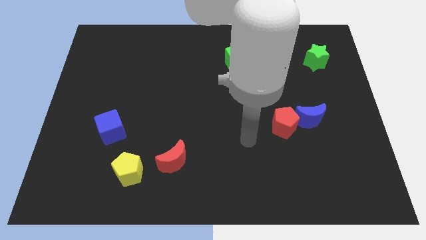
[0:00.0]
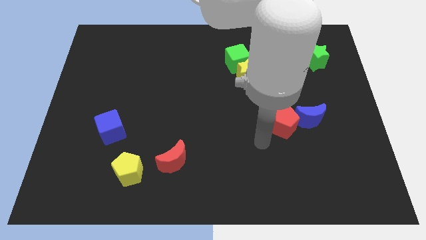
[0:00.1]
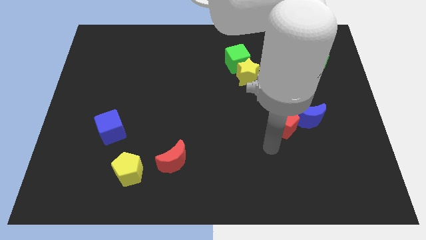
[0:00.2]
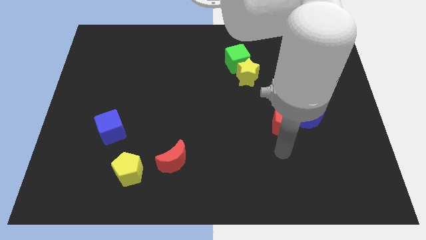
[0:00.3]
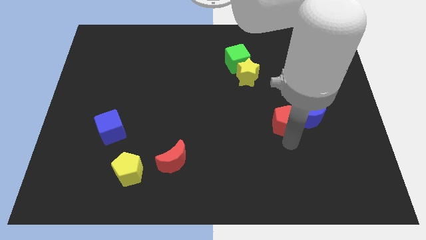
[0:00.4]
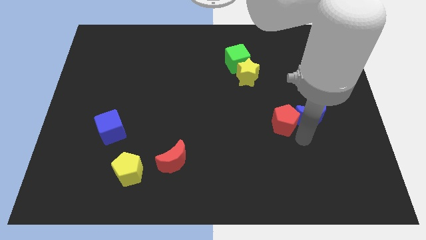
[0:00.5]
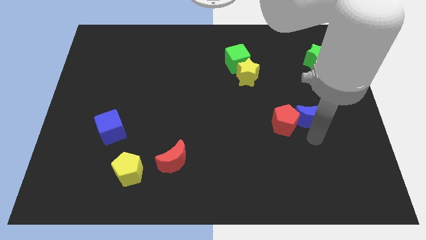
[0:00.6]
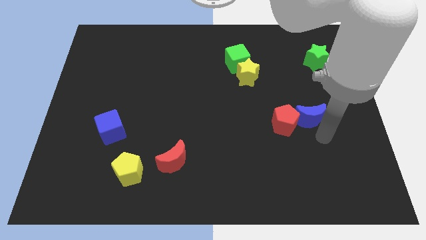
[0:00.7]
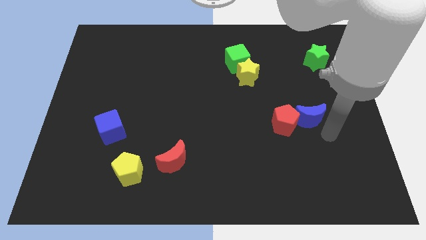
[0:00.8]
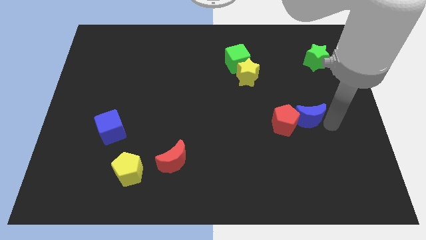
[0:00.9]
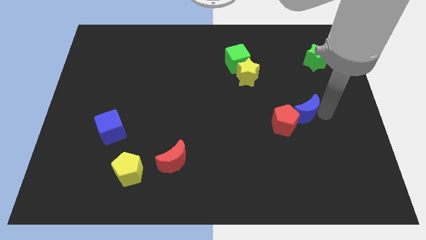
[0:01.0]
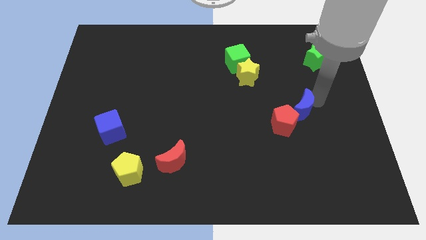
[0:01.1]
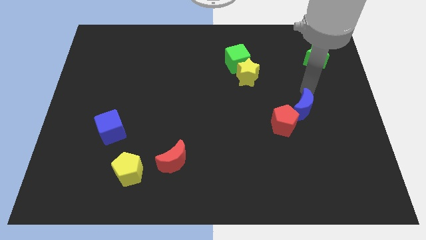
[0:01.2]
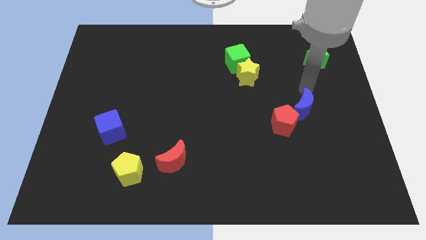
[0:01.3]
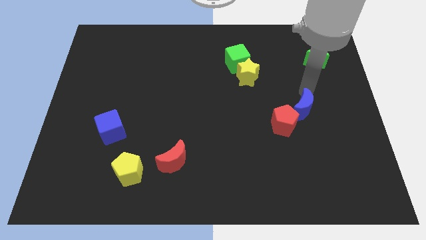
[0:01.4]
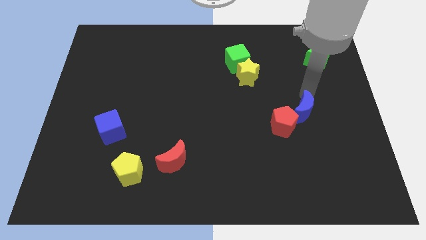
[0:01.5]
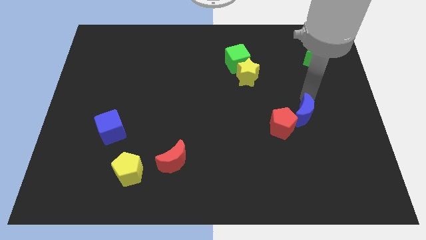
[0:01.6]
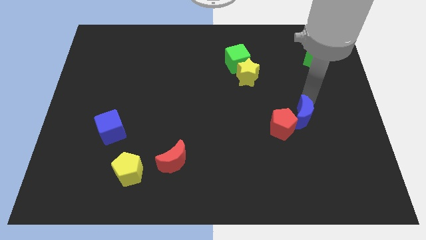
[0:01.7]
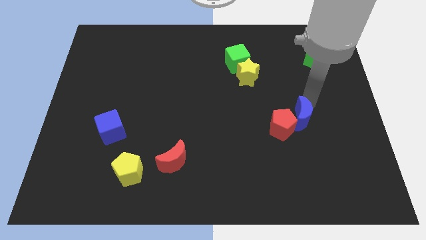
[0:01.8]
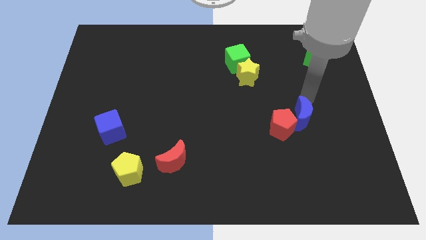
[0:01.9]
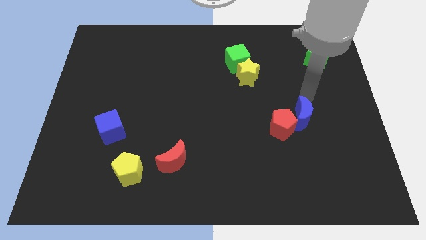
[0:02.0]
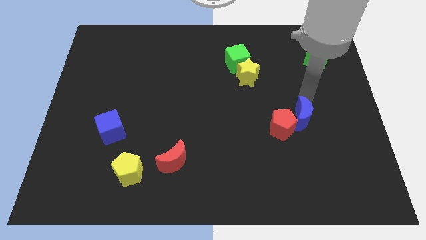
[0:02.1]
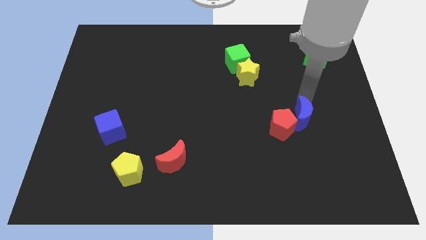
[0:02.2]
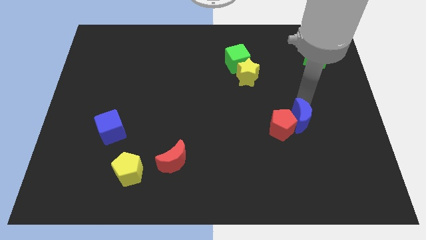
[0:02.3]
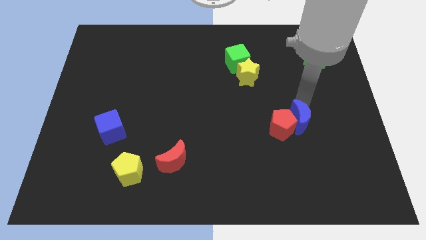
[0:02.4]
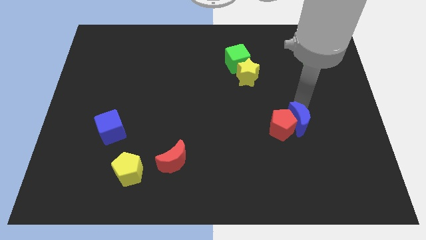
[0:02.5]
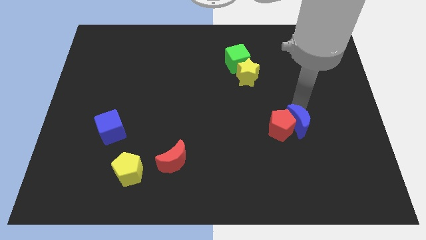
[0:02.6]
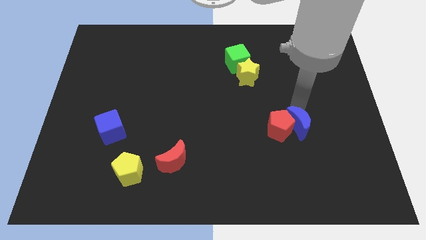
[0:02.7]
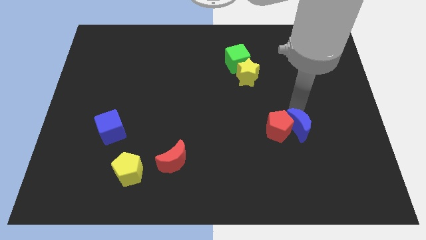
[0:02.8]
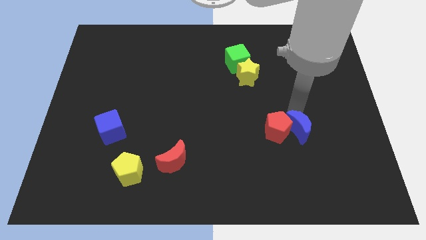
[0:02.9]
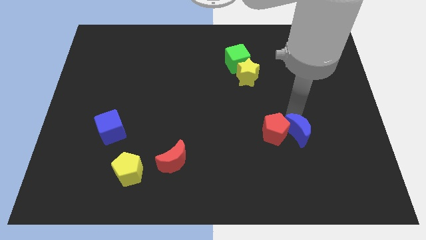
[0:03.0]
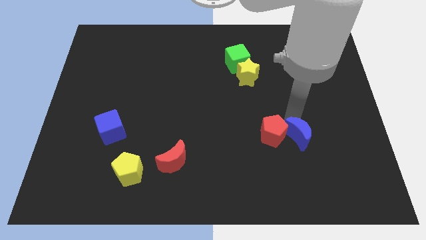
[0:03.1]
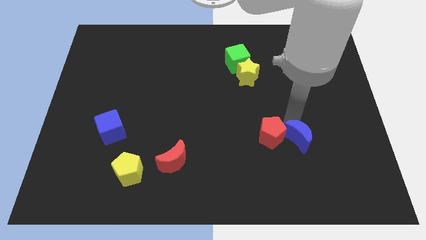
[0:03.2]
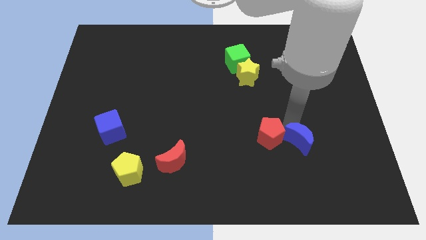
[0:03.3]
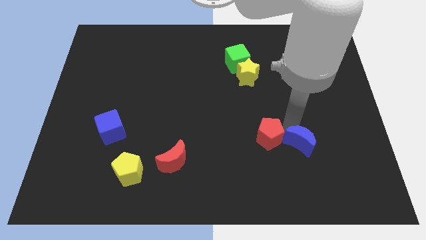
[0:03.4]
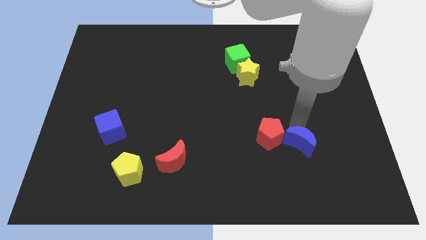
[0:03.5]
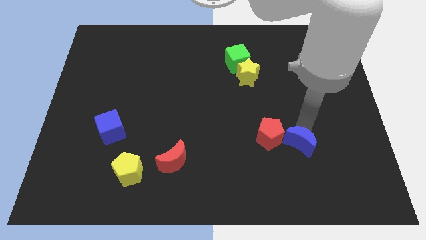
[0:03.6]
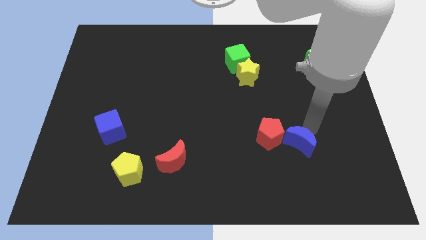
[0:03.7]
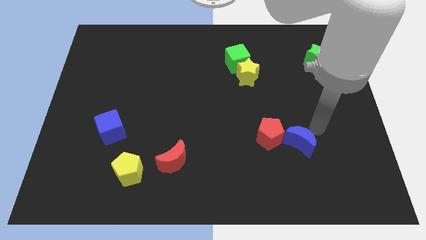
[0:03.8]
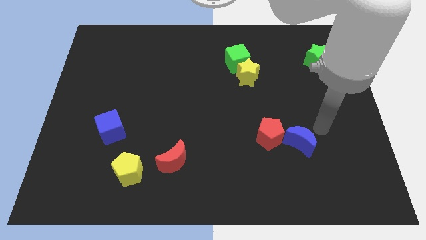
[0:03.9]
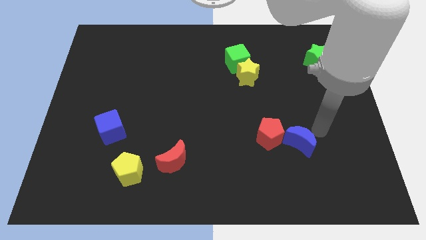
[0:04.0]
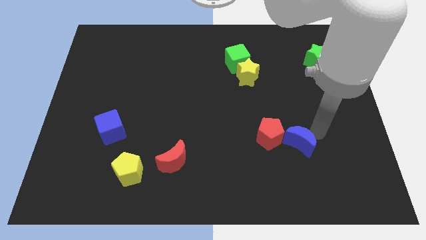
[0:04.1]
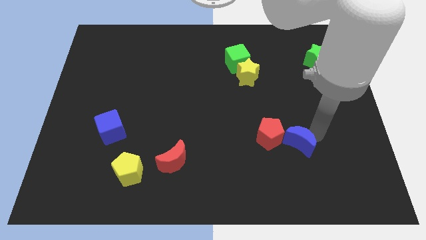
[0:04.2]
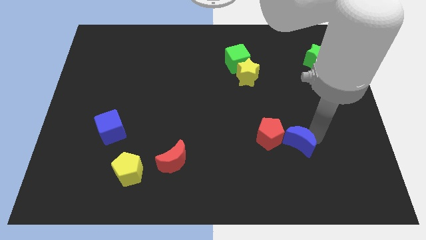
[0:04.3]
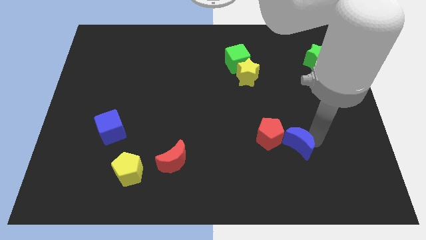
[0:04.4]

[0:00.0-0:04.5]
push the blue moon diagonally downwards and left somewhat

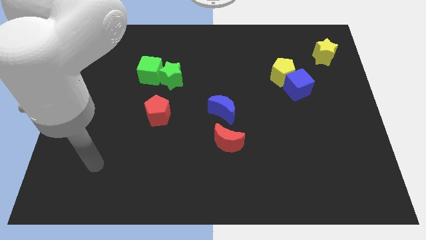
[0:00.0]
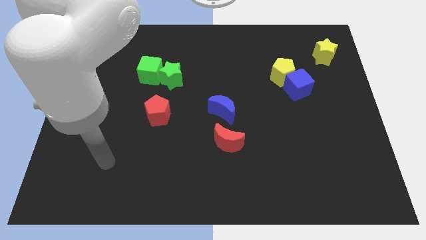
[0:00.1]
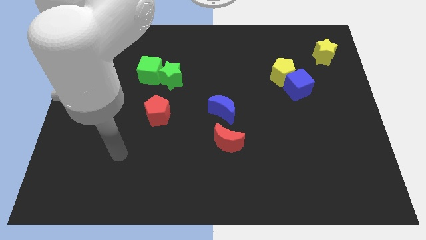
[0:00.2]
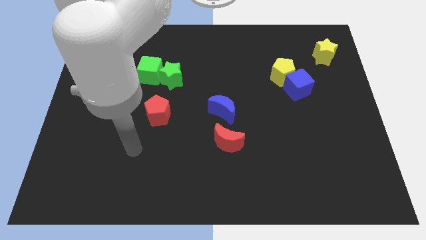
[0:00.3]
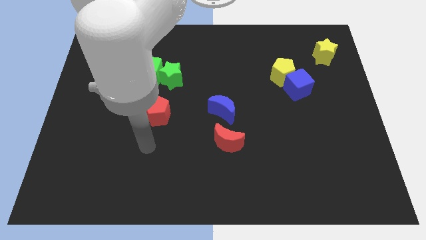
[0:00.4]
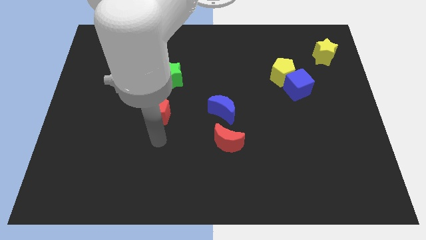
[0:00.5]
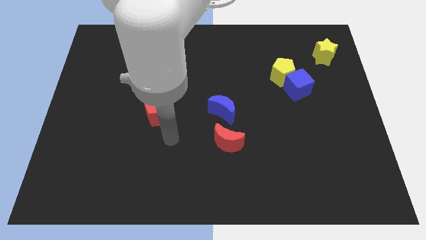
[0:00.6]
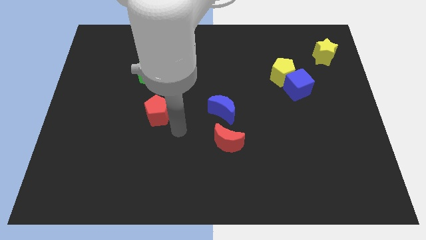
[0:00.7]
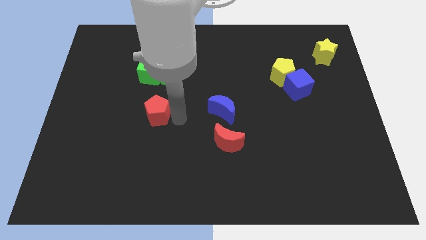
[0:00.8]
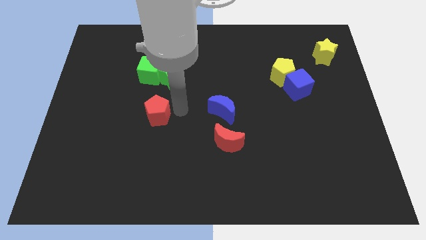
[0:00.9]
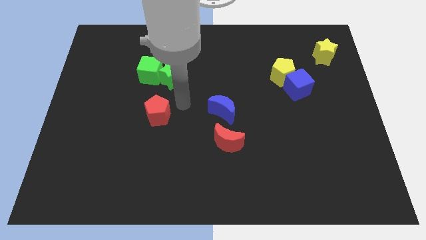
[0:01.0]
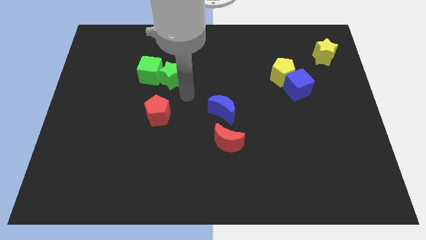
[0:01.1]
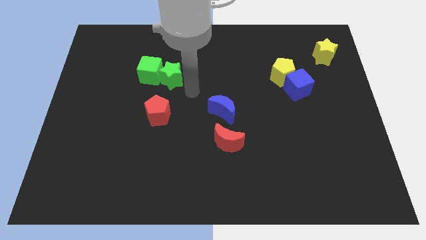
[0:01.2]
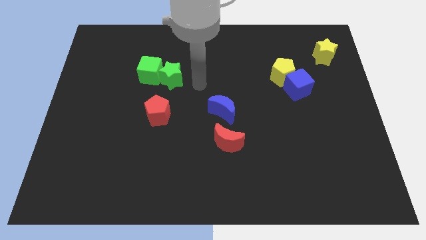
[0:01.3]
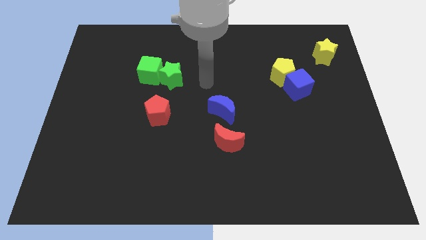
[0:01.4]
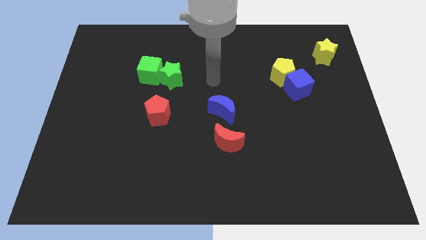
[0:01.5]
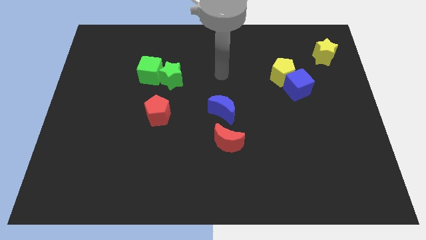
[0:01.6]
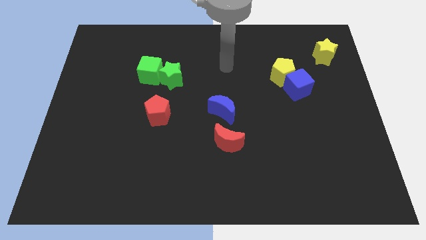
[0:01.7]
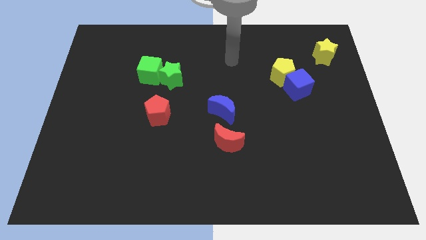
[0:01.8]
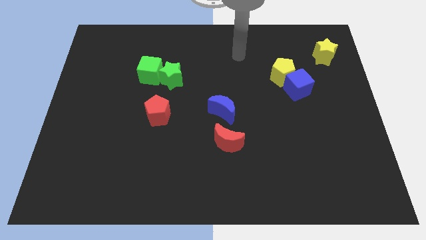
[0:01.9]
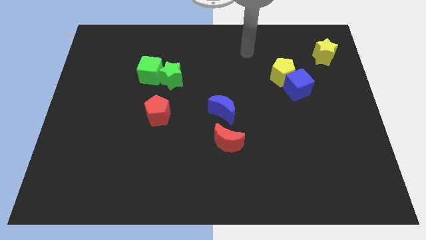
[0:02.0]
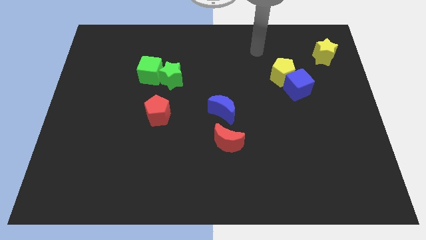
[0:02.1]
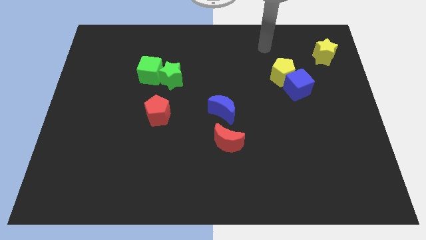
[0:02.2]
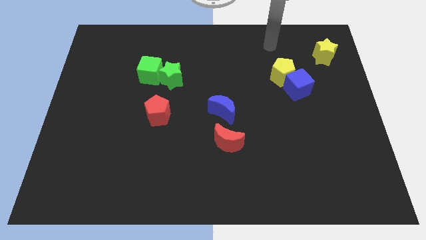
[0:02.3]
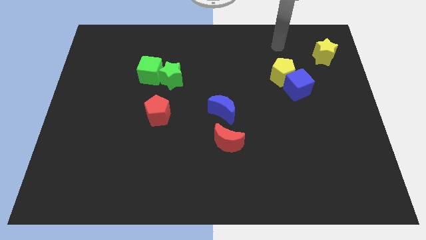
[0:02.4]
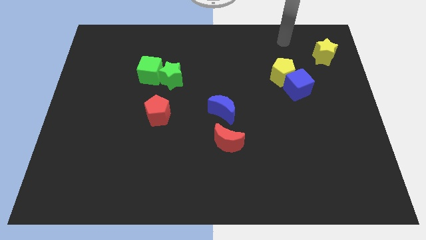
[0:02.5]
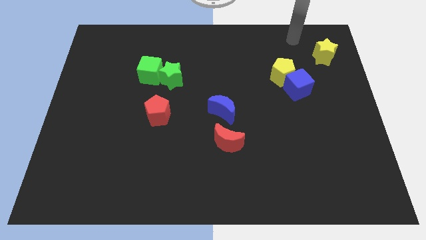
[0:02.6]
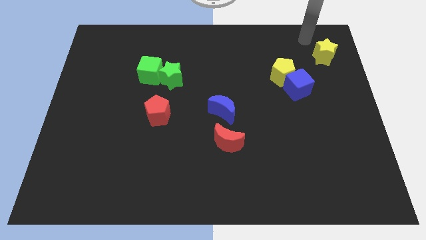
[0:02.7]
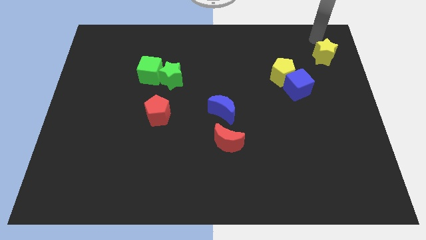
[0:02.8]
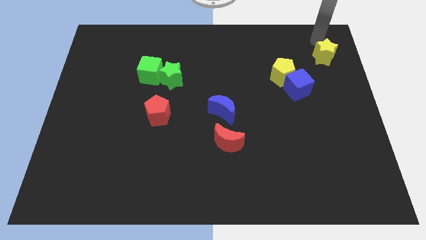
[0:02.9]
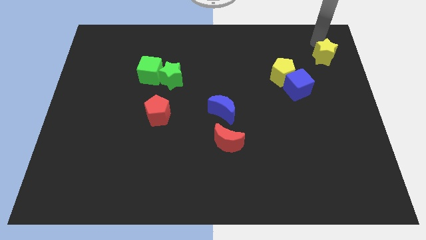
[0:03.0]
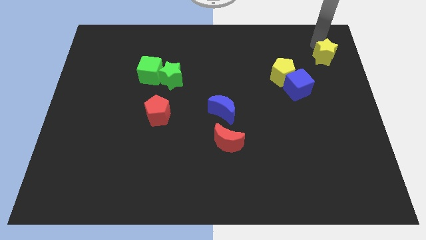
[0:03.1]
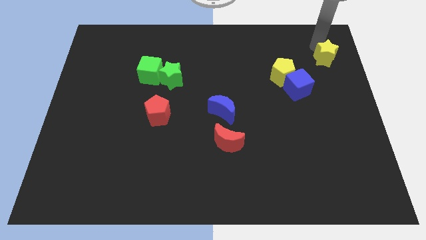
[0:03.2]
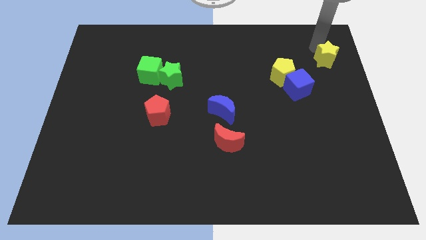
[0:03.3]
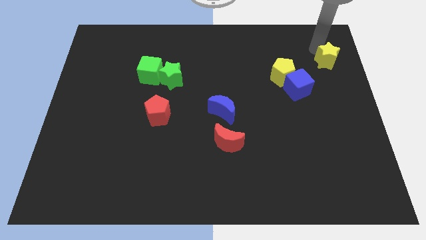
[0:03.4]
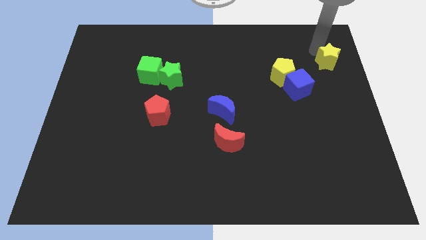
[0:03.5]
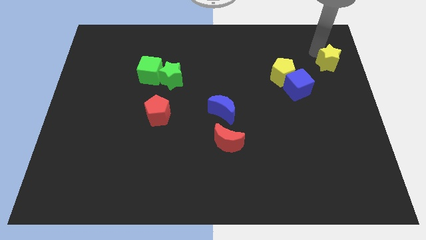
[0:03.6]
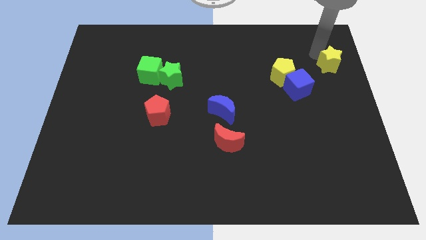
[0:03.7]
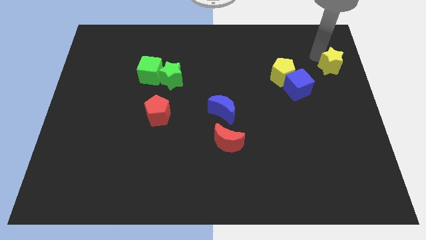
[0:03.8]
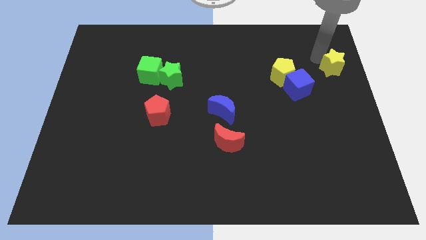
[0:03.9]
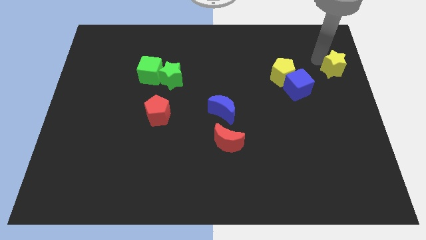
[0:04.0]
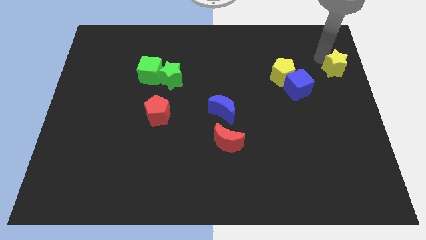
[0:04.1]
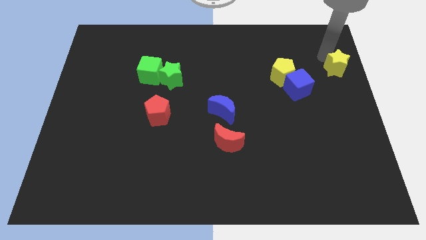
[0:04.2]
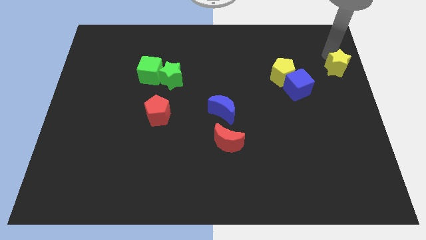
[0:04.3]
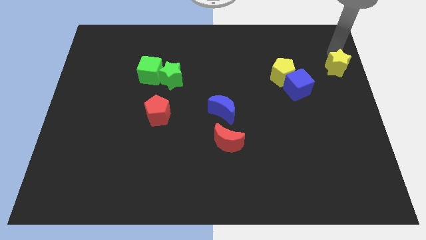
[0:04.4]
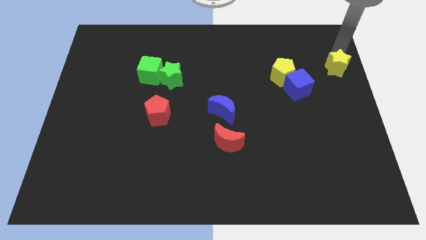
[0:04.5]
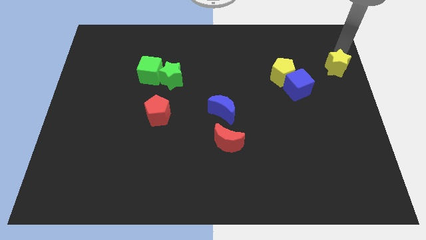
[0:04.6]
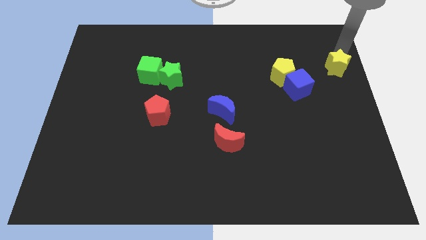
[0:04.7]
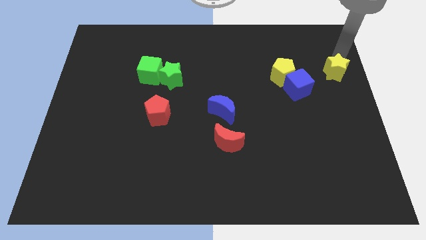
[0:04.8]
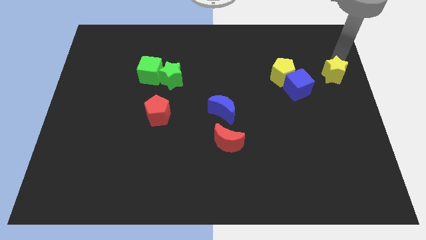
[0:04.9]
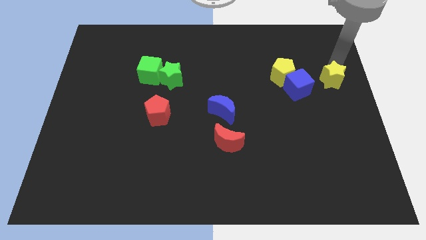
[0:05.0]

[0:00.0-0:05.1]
slightly move the yellow star down
